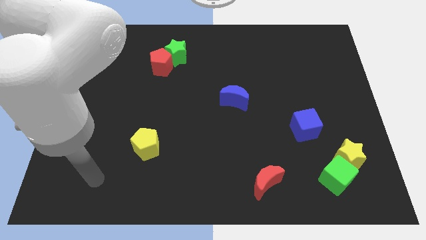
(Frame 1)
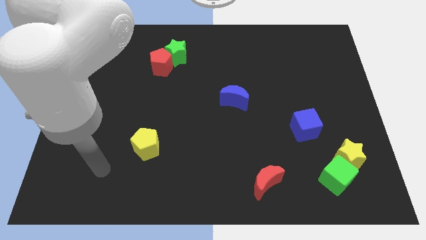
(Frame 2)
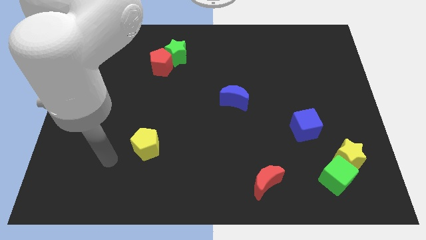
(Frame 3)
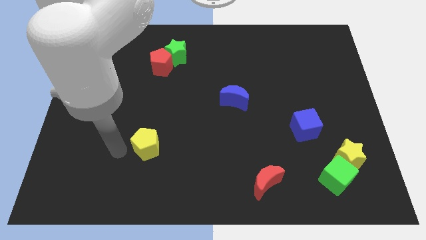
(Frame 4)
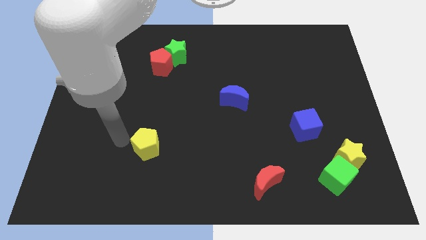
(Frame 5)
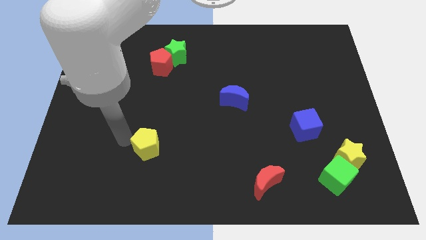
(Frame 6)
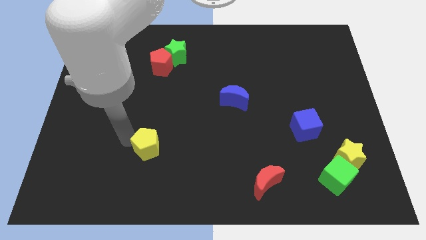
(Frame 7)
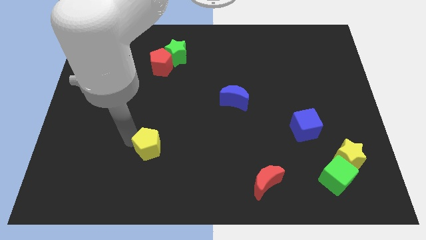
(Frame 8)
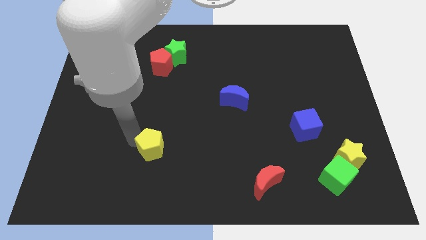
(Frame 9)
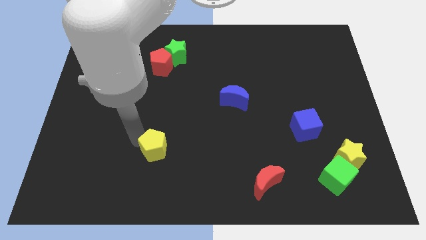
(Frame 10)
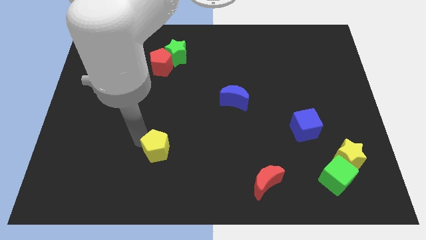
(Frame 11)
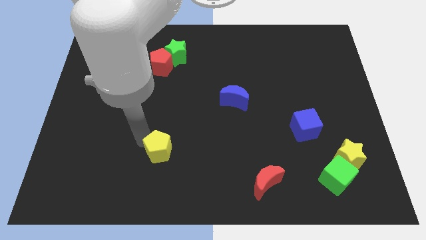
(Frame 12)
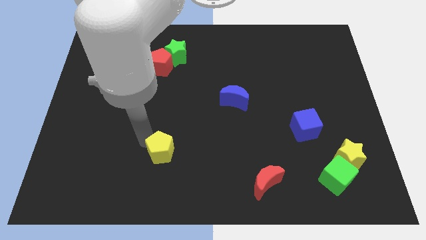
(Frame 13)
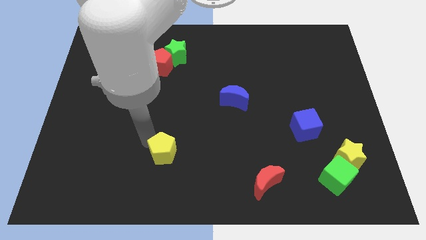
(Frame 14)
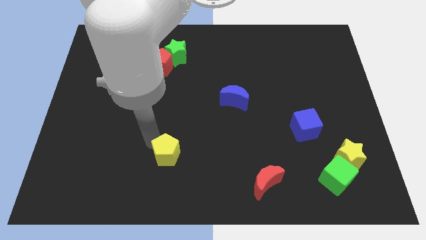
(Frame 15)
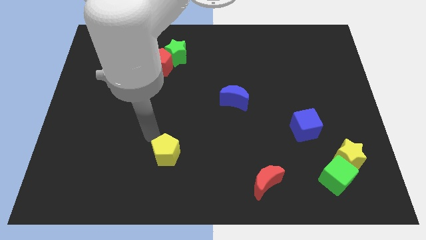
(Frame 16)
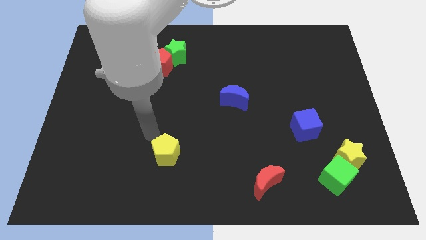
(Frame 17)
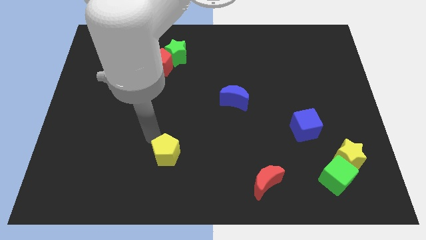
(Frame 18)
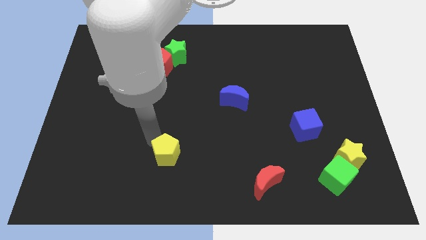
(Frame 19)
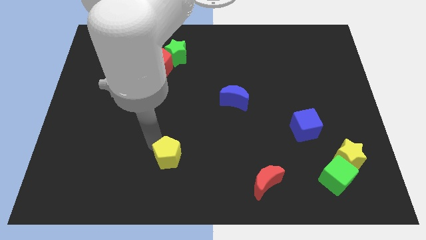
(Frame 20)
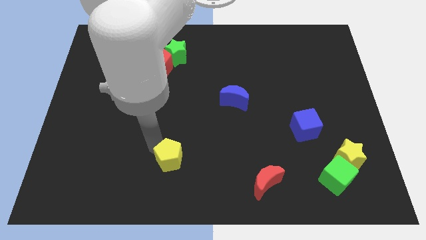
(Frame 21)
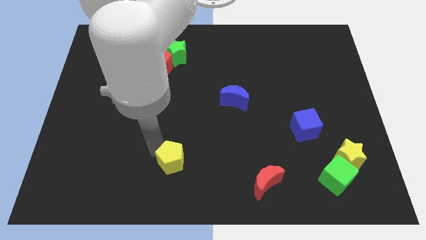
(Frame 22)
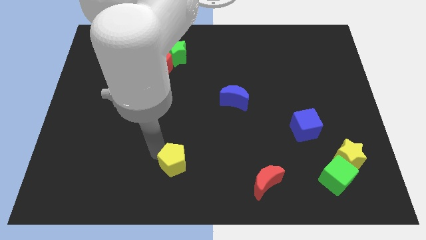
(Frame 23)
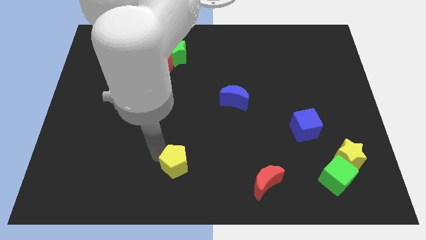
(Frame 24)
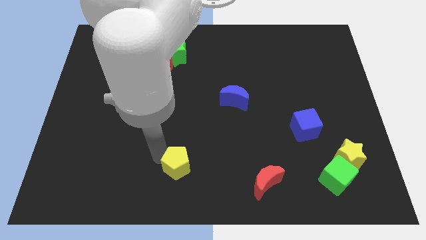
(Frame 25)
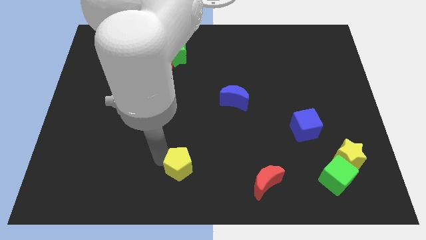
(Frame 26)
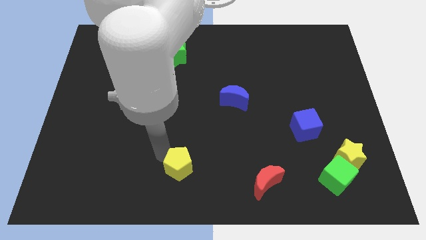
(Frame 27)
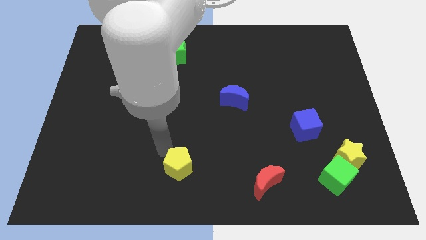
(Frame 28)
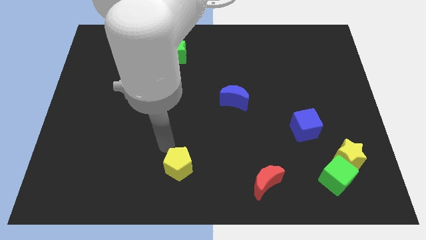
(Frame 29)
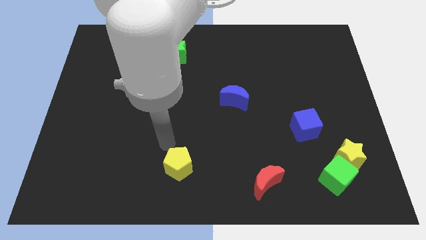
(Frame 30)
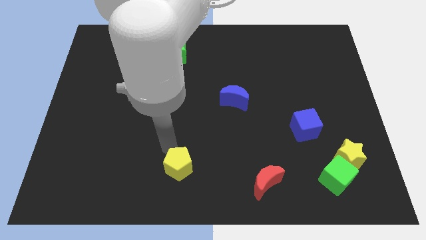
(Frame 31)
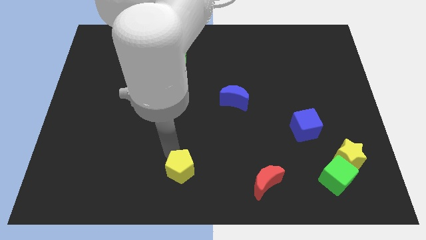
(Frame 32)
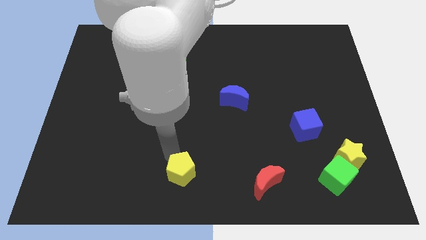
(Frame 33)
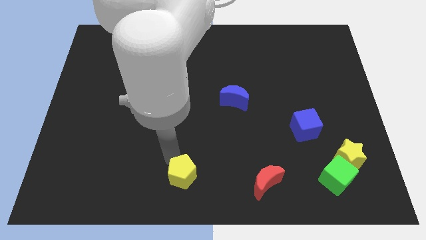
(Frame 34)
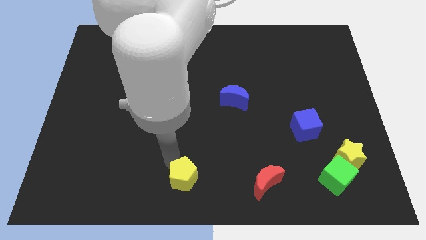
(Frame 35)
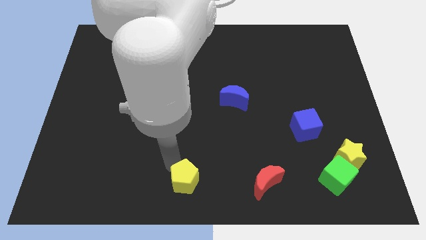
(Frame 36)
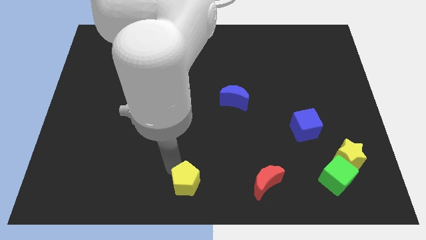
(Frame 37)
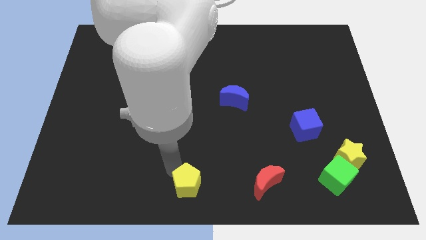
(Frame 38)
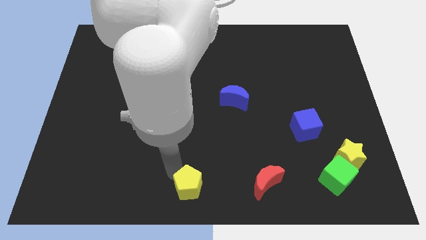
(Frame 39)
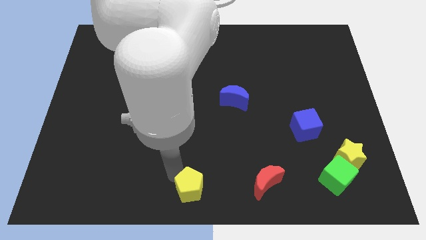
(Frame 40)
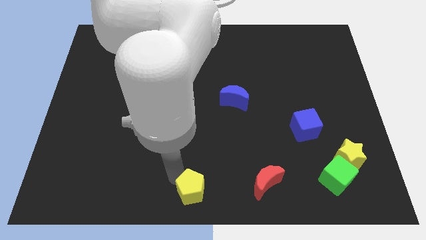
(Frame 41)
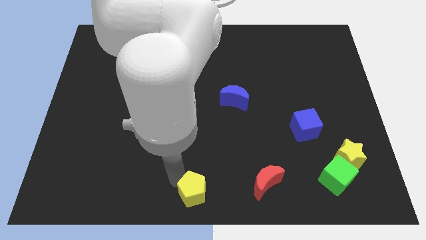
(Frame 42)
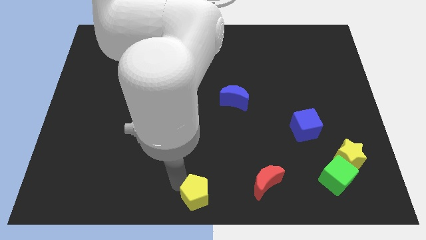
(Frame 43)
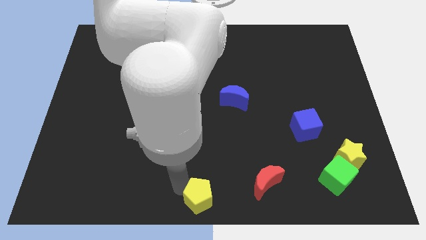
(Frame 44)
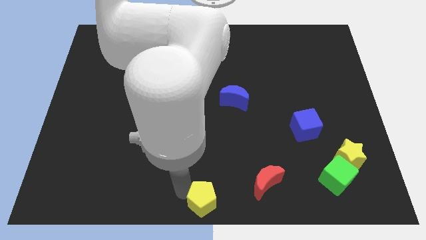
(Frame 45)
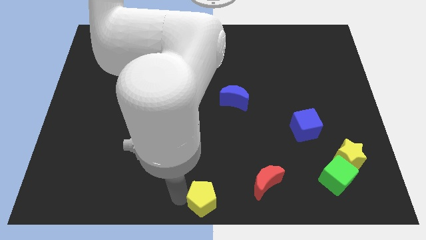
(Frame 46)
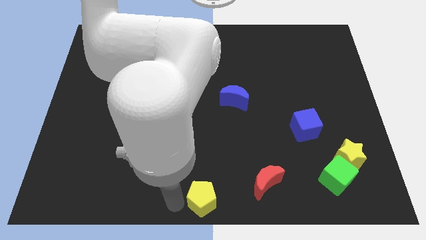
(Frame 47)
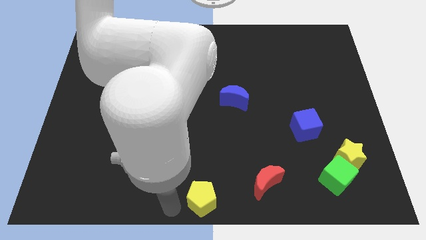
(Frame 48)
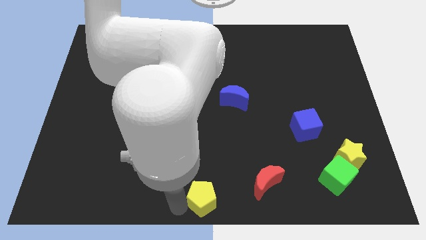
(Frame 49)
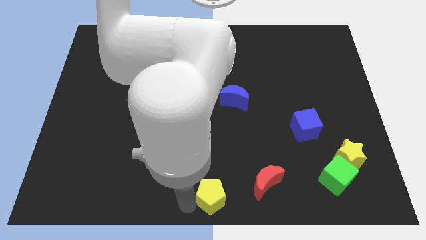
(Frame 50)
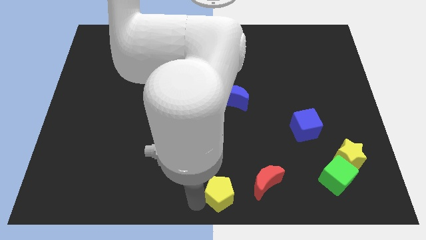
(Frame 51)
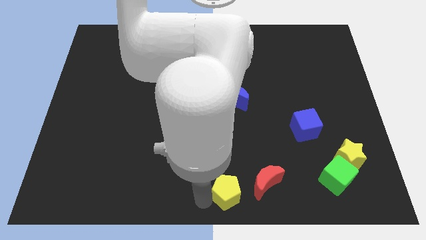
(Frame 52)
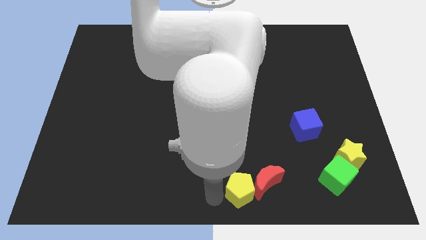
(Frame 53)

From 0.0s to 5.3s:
put the yellow pentagon towards the red moon

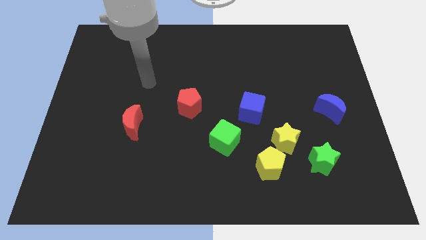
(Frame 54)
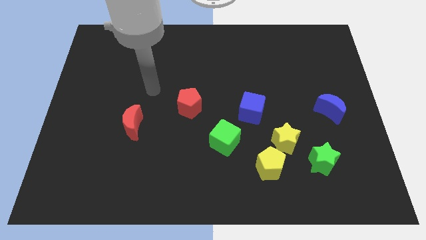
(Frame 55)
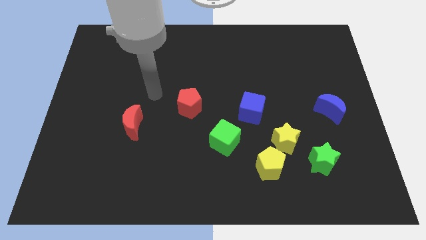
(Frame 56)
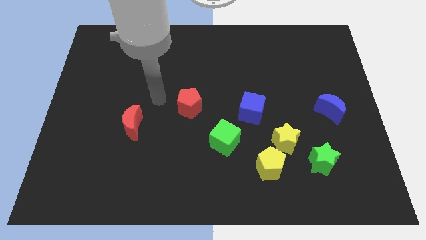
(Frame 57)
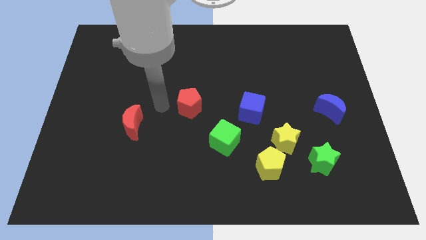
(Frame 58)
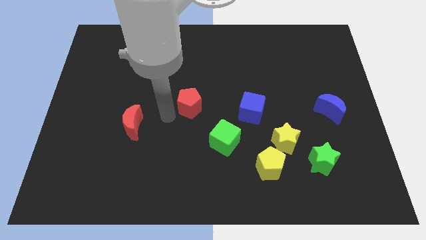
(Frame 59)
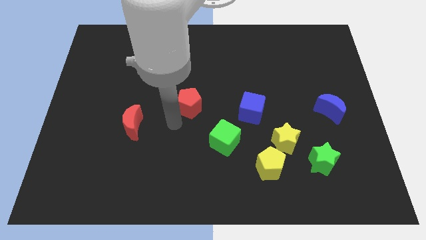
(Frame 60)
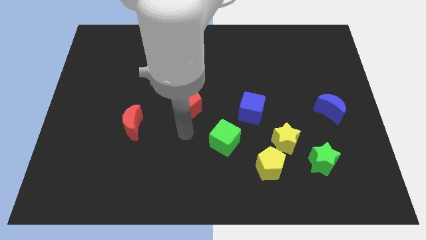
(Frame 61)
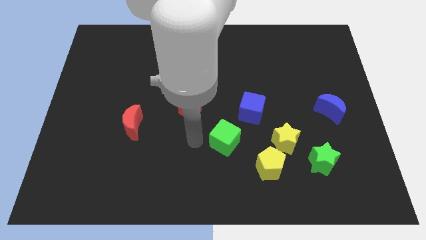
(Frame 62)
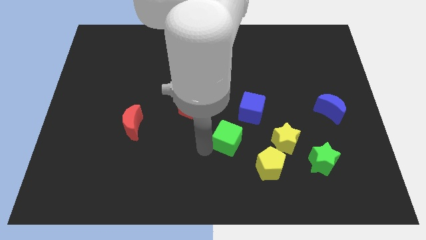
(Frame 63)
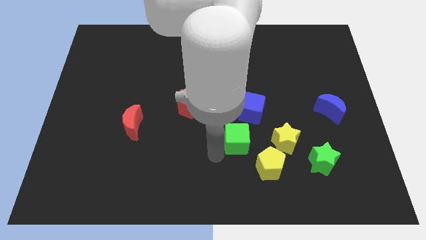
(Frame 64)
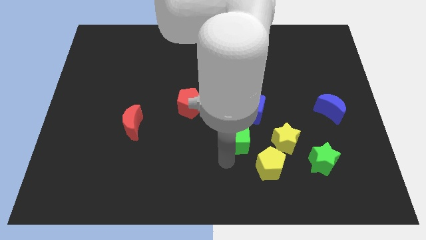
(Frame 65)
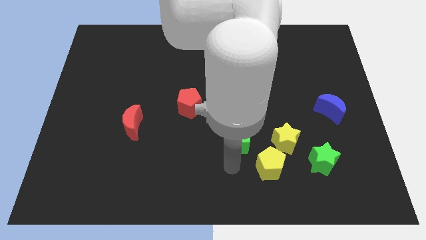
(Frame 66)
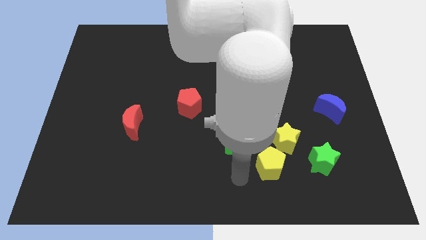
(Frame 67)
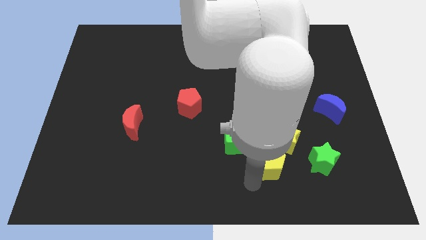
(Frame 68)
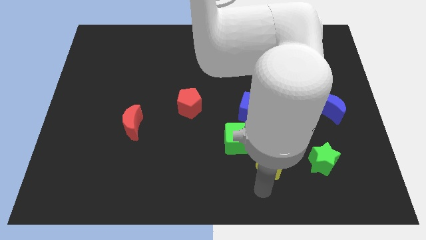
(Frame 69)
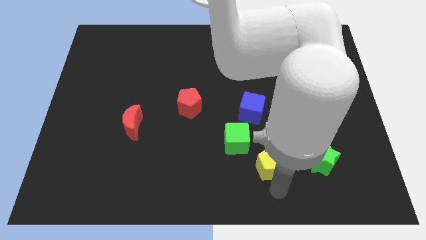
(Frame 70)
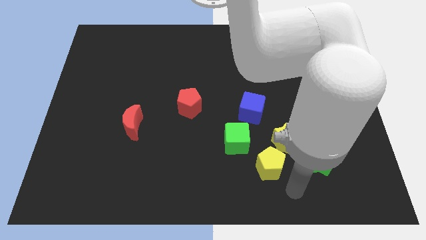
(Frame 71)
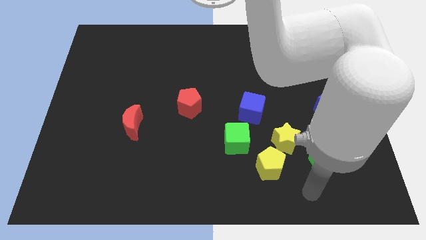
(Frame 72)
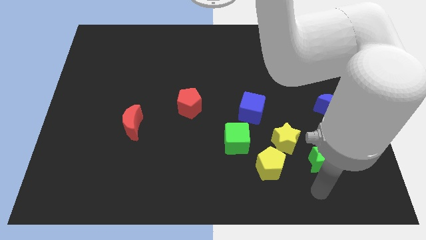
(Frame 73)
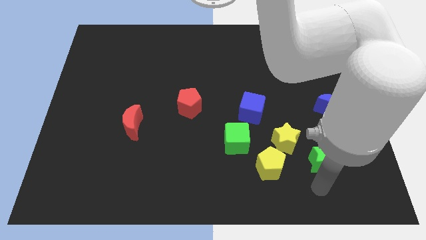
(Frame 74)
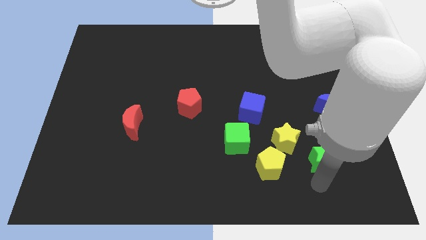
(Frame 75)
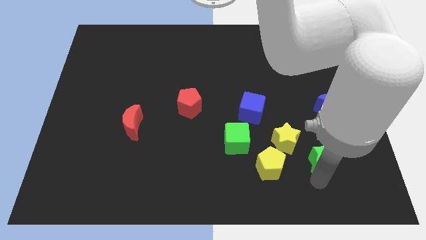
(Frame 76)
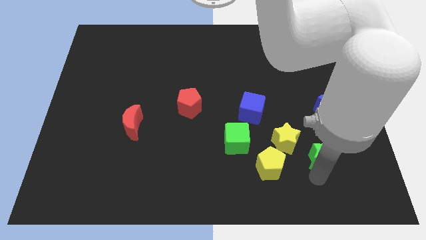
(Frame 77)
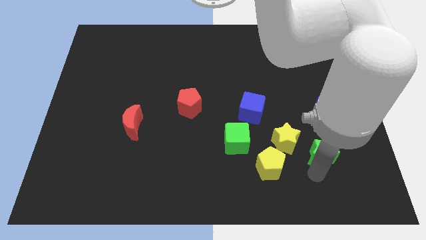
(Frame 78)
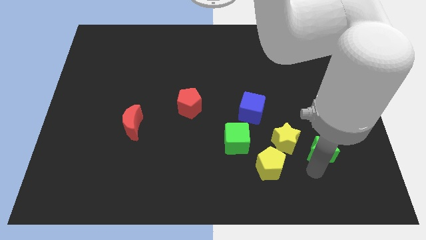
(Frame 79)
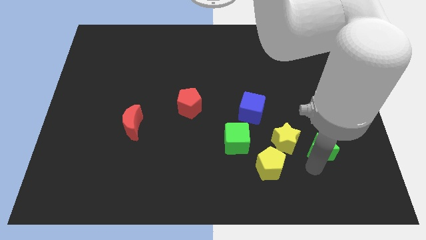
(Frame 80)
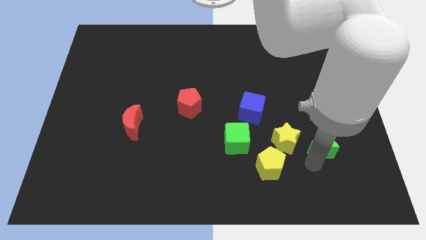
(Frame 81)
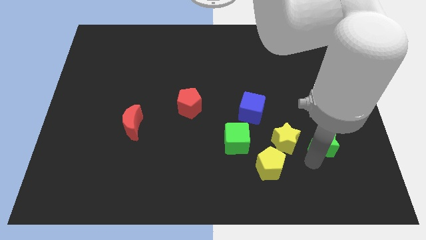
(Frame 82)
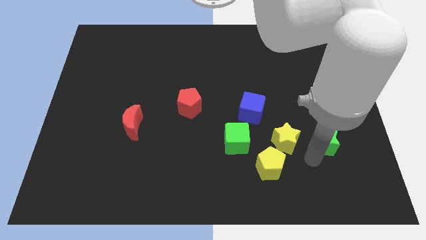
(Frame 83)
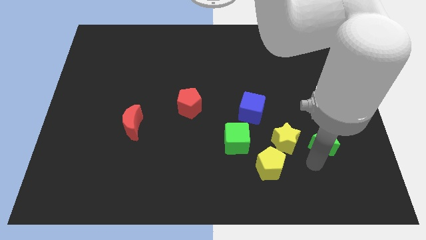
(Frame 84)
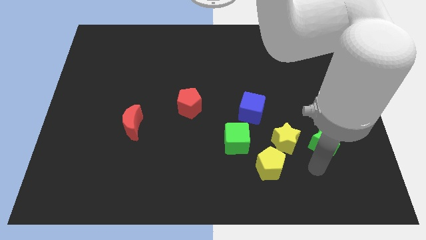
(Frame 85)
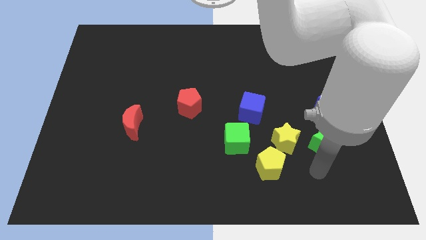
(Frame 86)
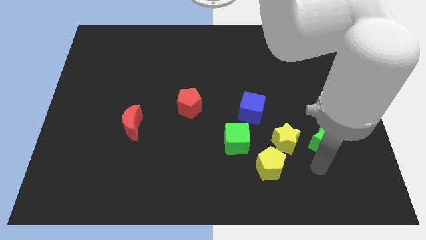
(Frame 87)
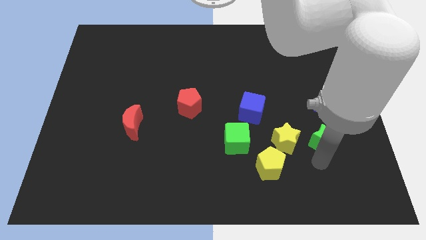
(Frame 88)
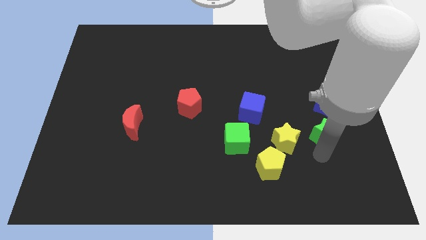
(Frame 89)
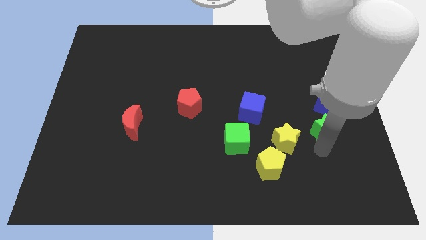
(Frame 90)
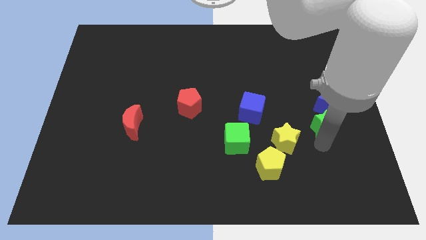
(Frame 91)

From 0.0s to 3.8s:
push the green star next to the blue moon
